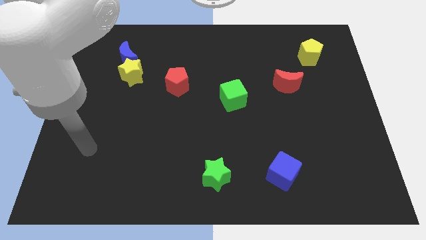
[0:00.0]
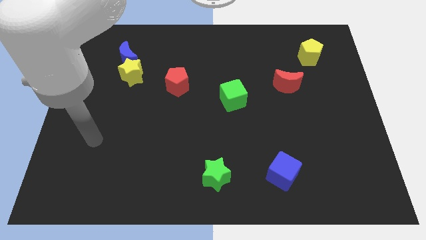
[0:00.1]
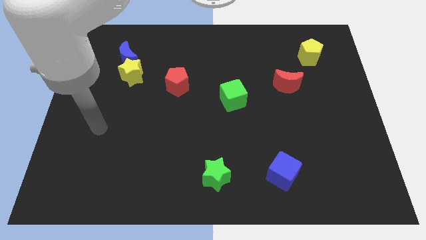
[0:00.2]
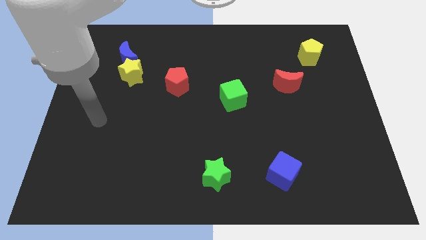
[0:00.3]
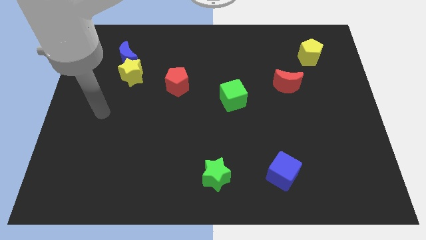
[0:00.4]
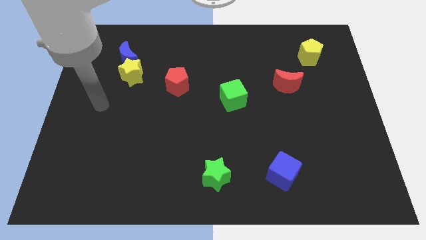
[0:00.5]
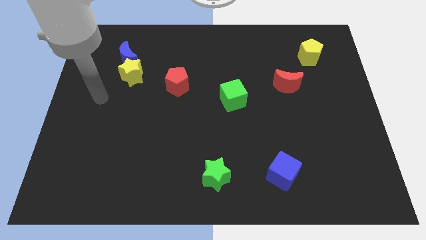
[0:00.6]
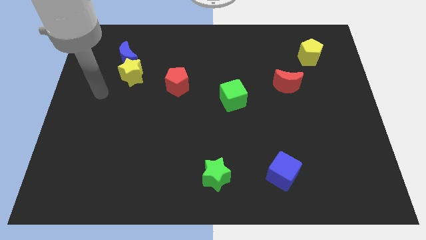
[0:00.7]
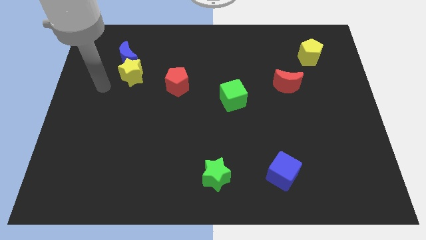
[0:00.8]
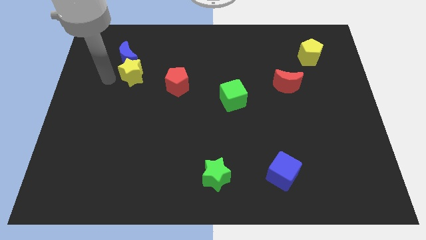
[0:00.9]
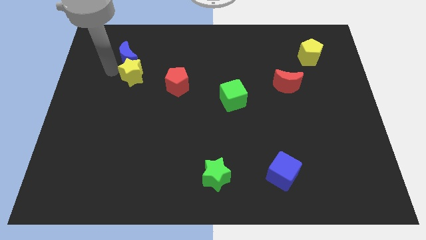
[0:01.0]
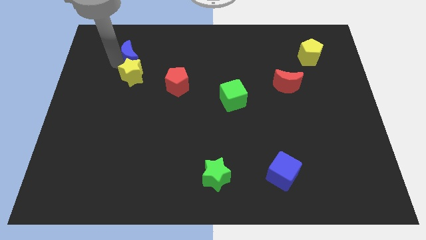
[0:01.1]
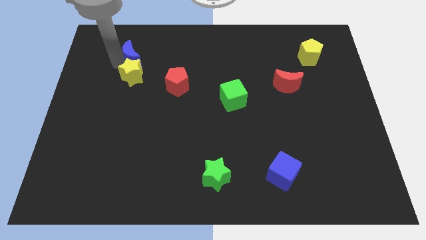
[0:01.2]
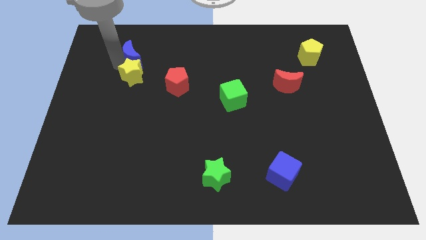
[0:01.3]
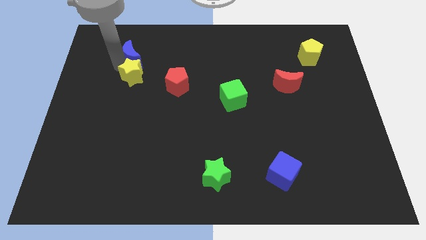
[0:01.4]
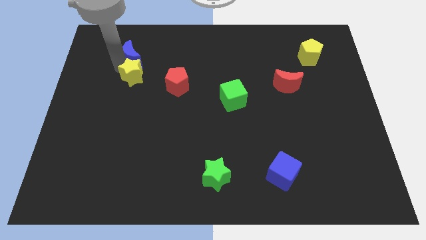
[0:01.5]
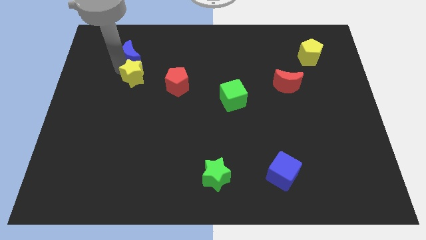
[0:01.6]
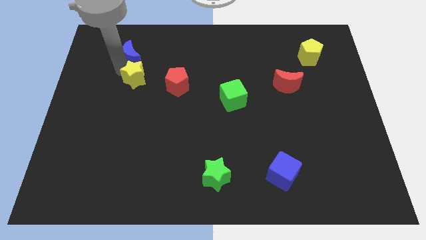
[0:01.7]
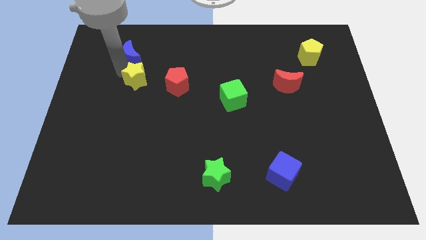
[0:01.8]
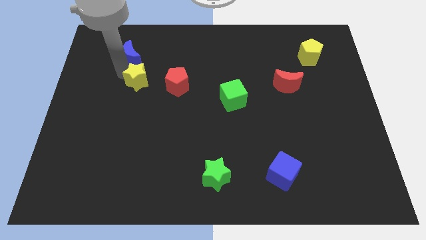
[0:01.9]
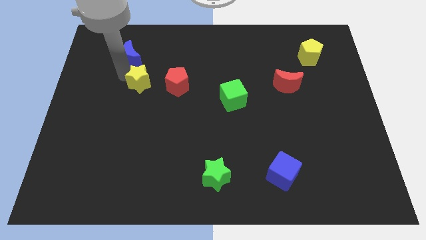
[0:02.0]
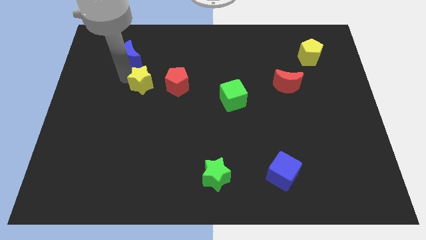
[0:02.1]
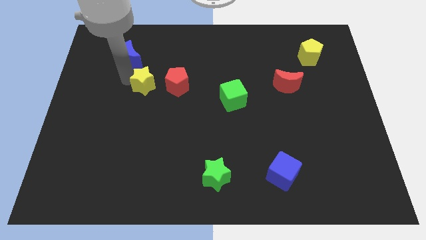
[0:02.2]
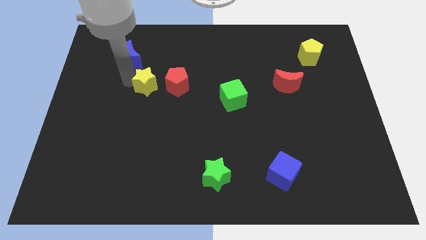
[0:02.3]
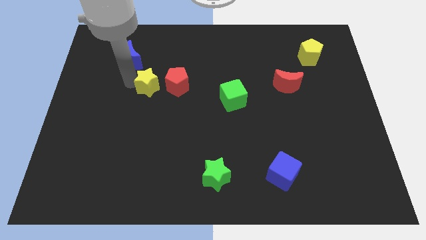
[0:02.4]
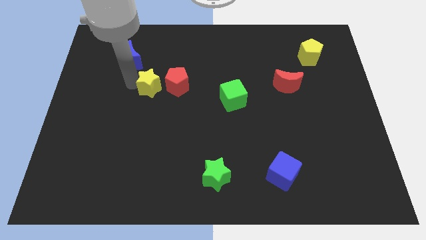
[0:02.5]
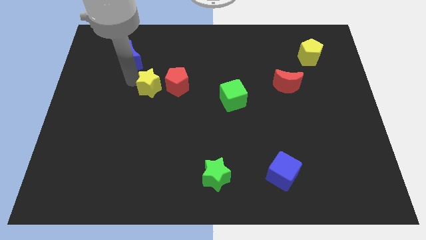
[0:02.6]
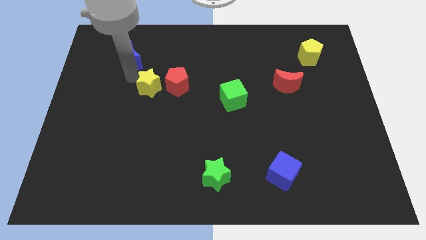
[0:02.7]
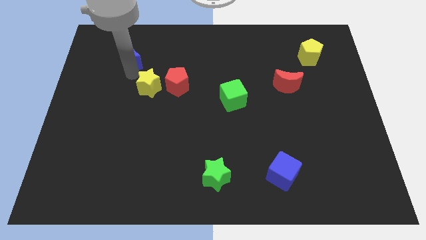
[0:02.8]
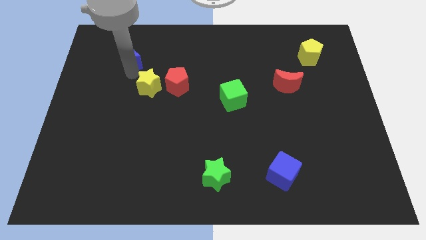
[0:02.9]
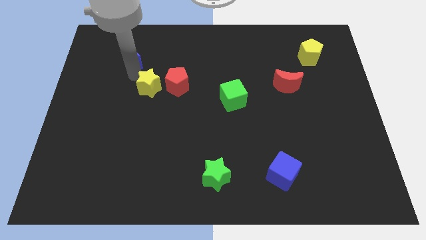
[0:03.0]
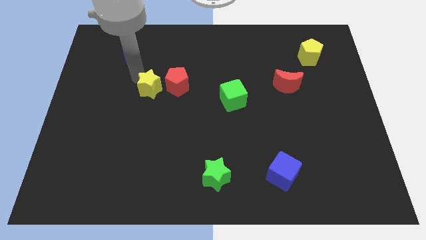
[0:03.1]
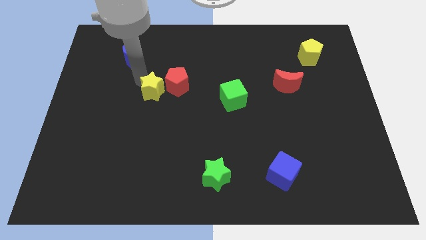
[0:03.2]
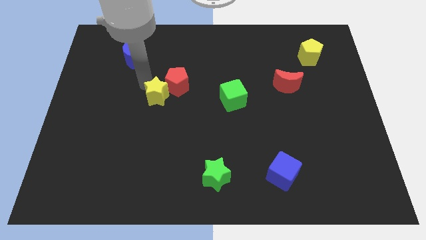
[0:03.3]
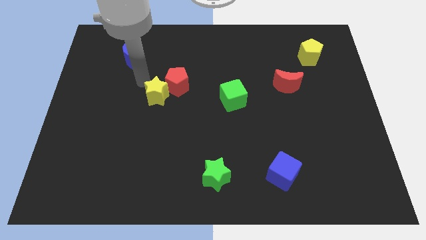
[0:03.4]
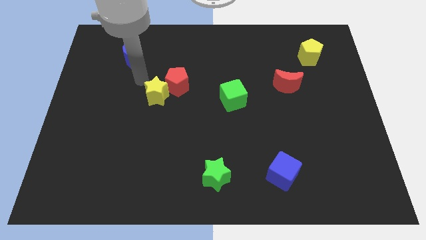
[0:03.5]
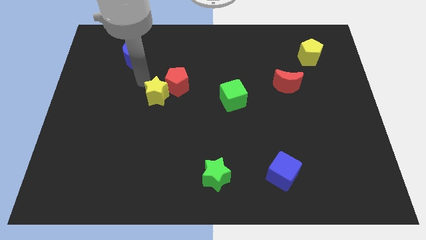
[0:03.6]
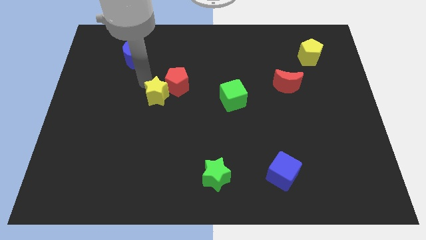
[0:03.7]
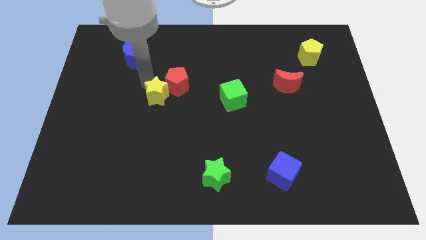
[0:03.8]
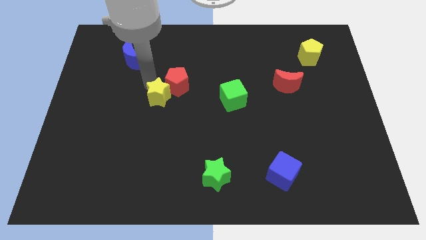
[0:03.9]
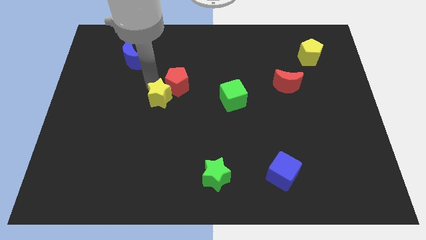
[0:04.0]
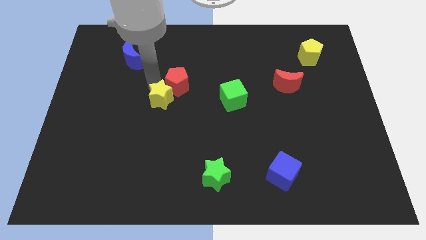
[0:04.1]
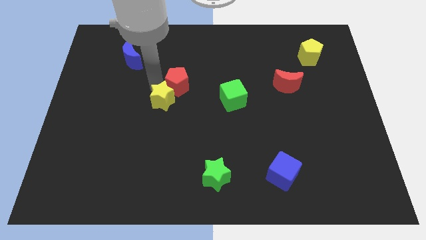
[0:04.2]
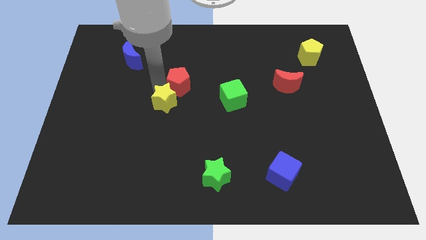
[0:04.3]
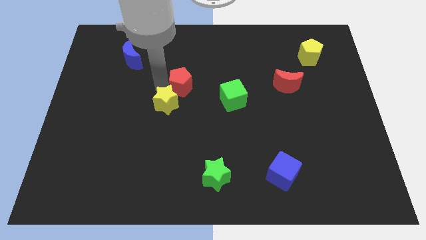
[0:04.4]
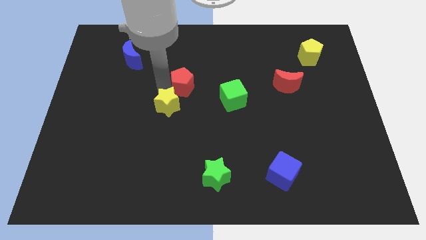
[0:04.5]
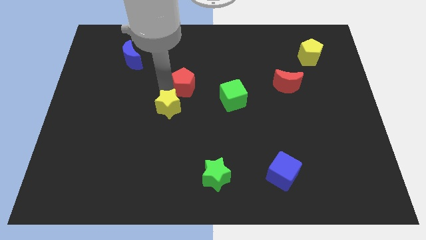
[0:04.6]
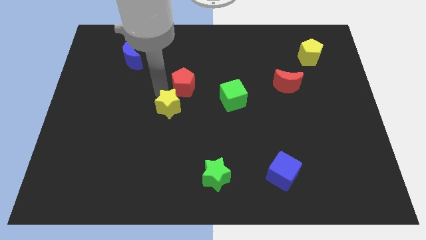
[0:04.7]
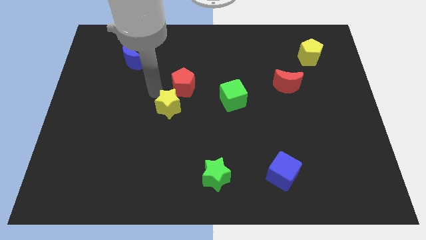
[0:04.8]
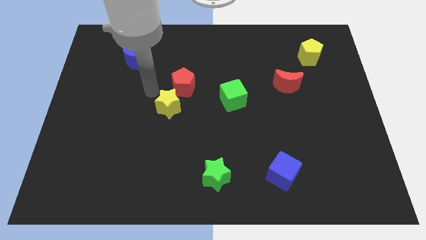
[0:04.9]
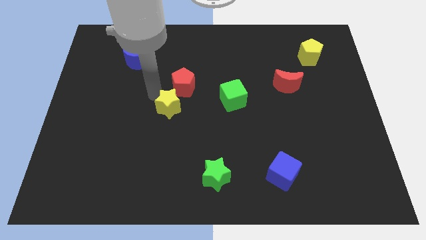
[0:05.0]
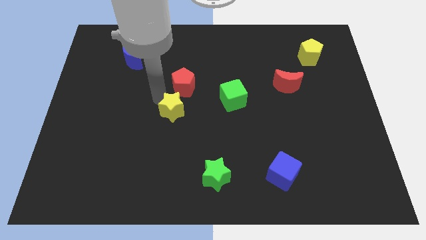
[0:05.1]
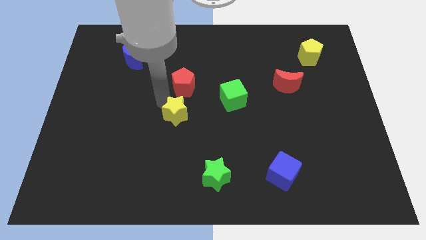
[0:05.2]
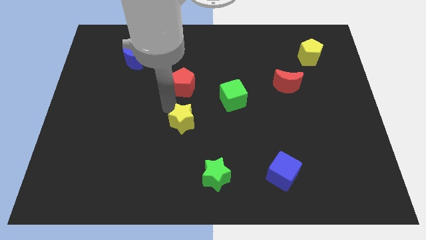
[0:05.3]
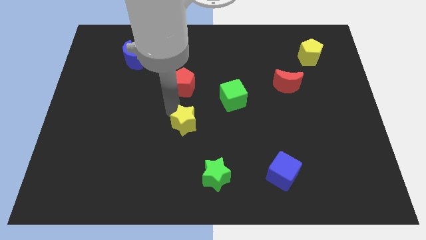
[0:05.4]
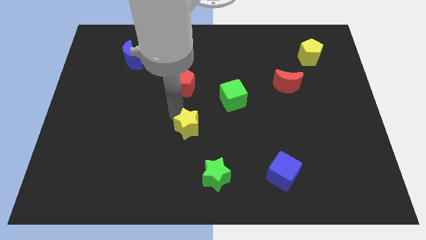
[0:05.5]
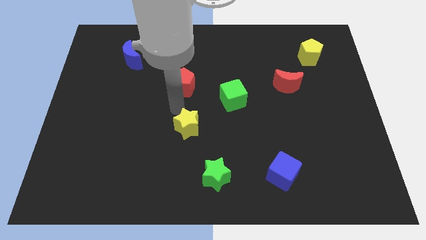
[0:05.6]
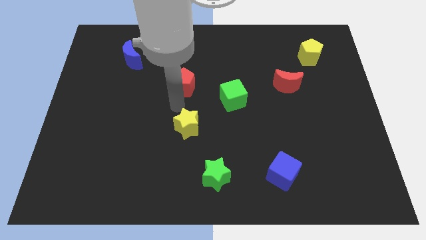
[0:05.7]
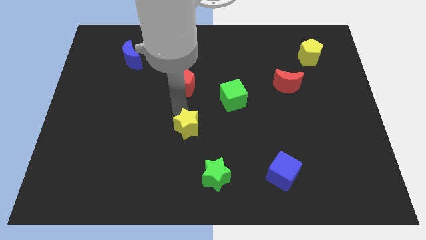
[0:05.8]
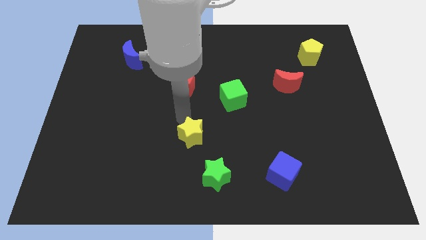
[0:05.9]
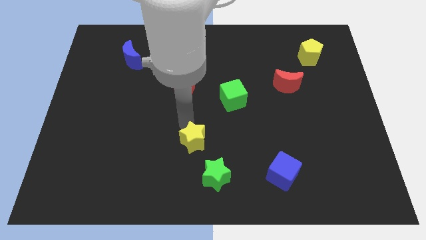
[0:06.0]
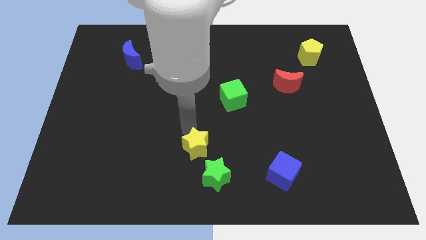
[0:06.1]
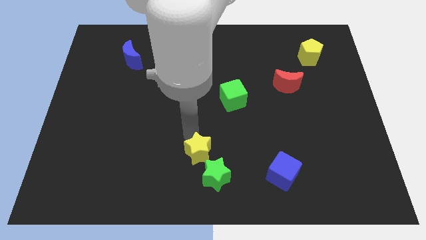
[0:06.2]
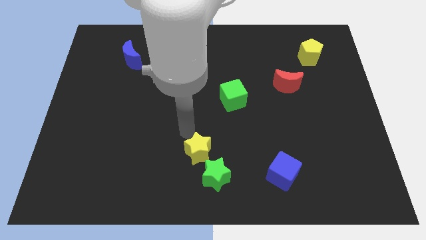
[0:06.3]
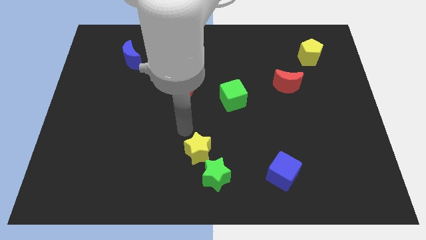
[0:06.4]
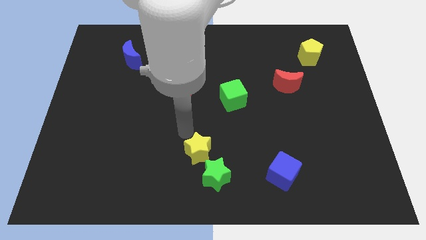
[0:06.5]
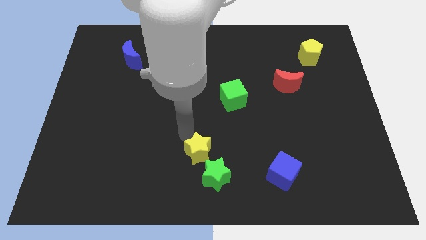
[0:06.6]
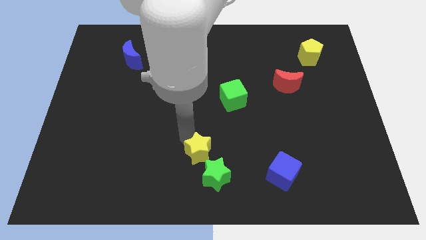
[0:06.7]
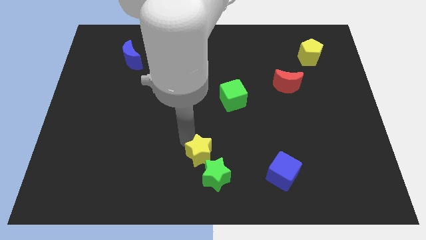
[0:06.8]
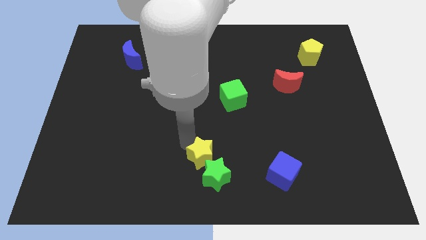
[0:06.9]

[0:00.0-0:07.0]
slide the yellow star towards the green star

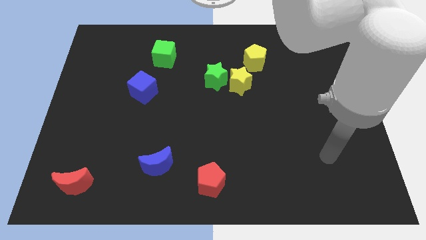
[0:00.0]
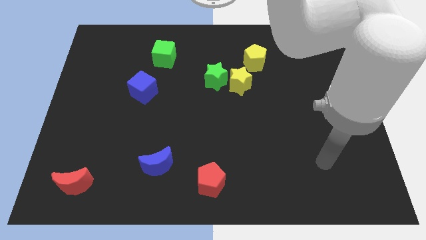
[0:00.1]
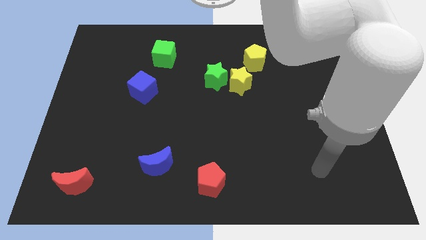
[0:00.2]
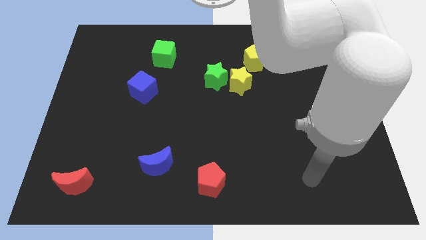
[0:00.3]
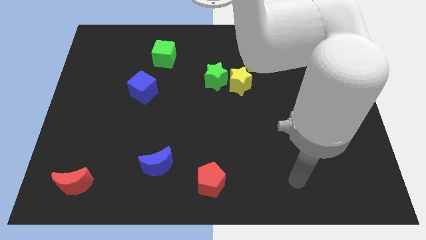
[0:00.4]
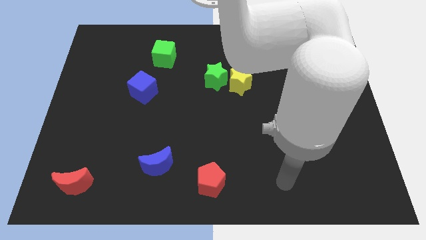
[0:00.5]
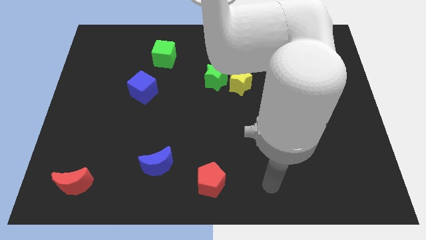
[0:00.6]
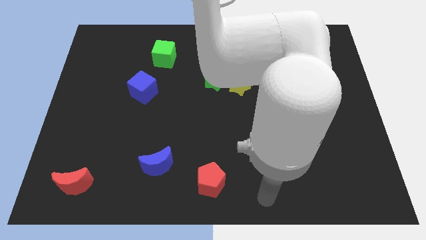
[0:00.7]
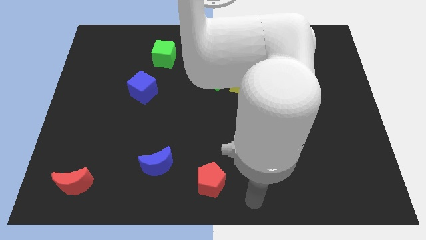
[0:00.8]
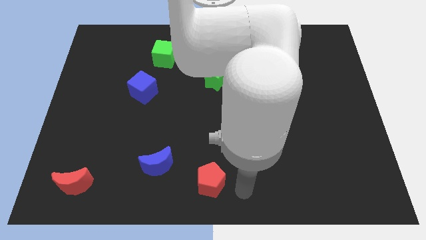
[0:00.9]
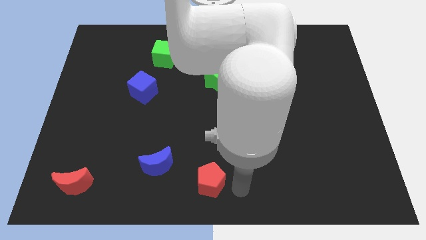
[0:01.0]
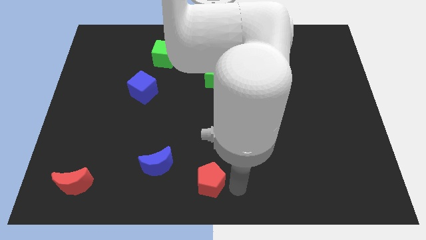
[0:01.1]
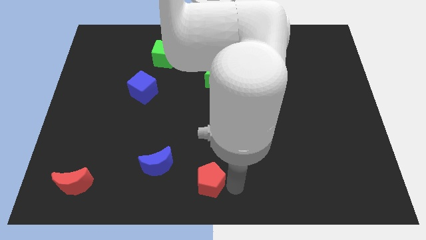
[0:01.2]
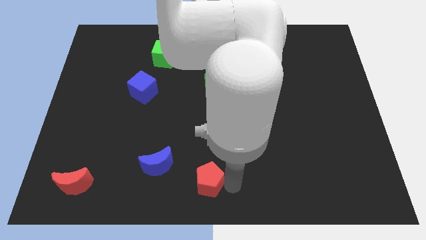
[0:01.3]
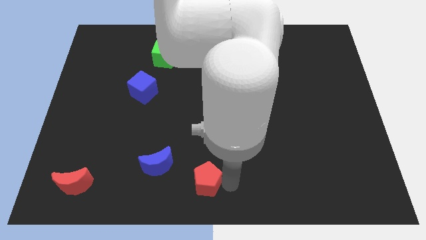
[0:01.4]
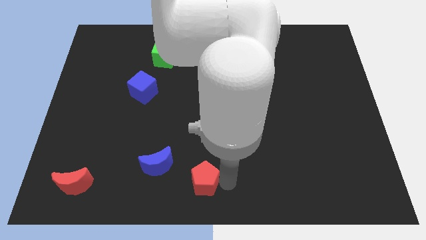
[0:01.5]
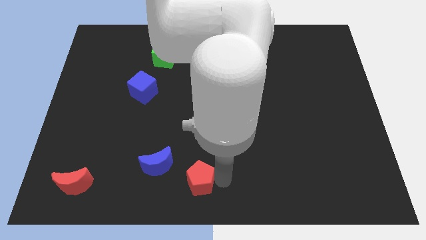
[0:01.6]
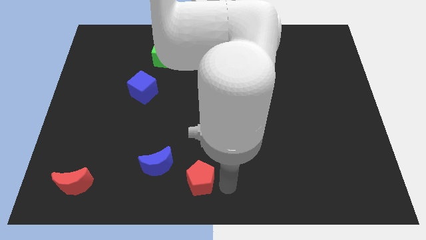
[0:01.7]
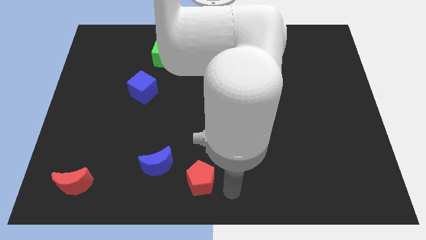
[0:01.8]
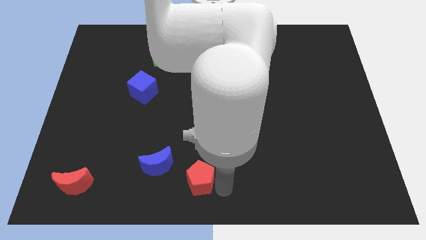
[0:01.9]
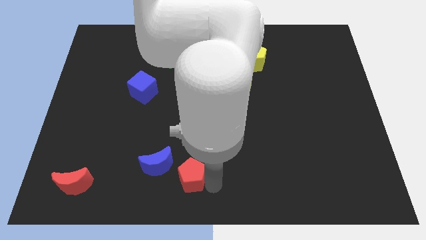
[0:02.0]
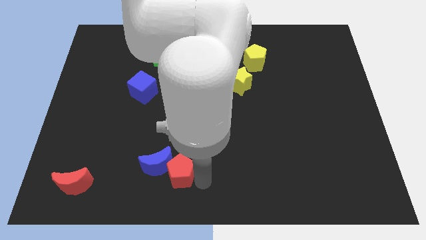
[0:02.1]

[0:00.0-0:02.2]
put the red pentagon next to the blue moon
